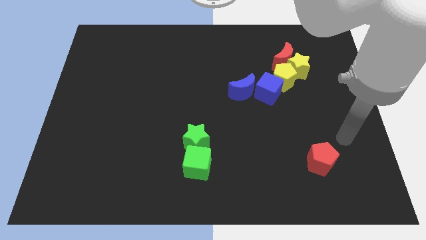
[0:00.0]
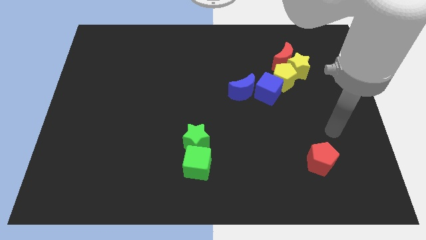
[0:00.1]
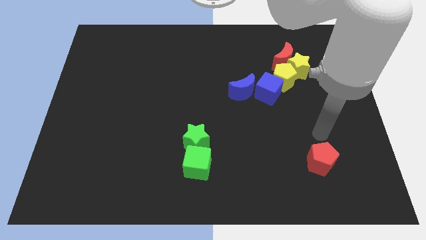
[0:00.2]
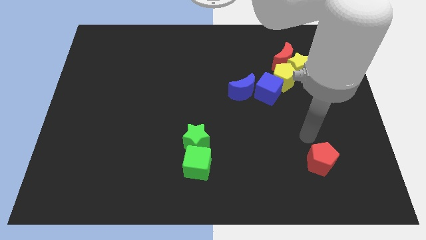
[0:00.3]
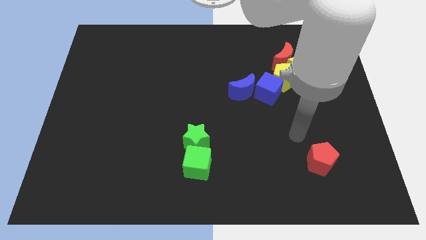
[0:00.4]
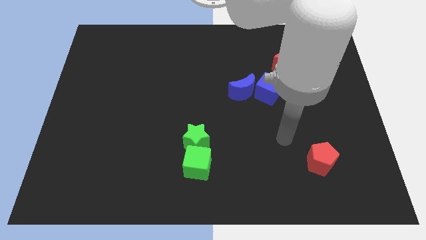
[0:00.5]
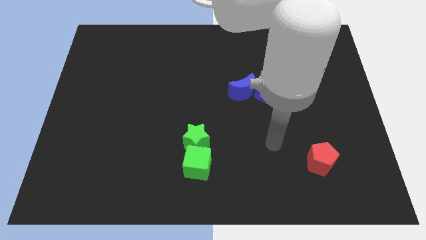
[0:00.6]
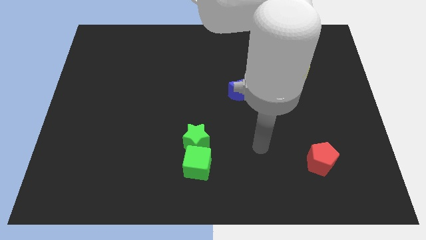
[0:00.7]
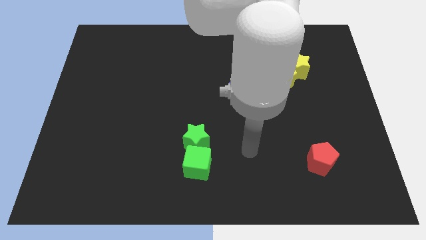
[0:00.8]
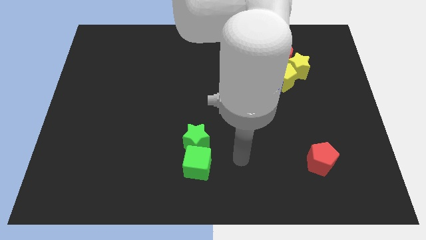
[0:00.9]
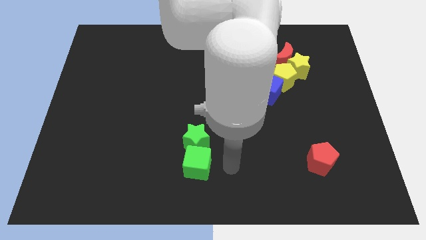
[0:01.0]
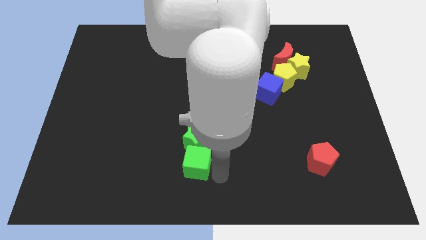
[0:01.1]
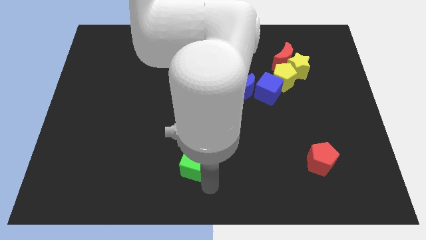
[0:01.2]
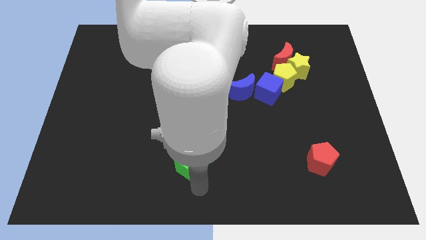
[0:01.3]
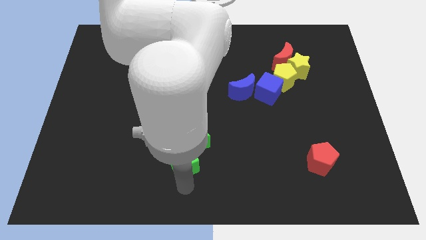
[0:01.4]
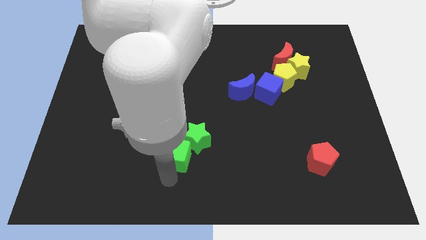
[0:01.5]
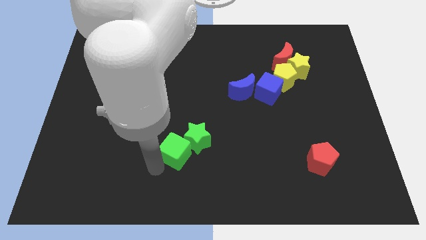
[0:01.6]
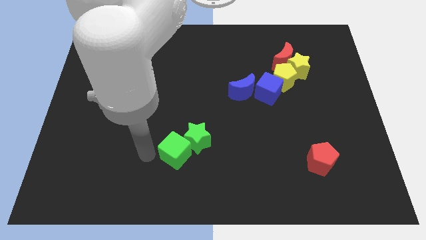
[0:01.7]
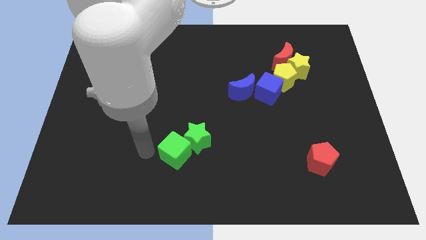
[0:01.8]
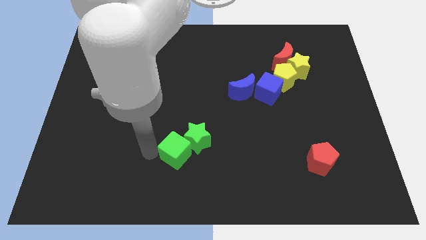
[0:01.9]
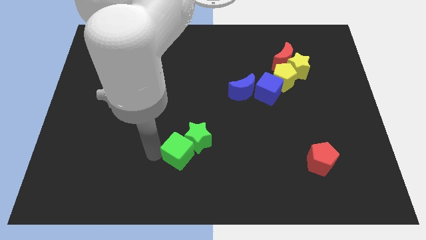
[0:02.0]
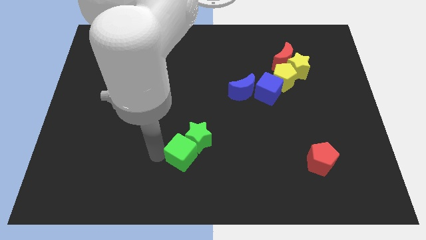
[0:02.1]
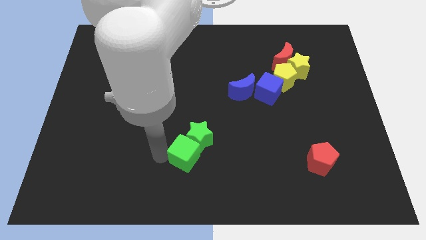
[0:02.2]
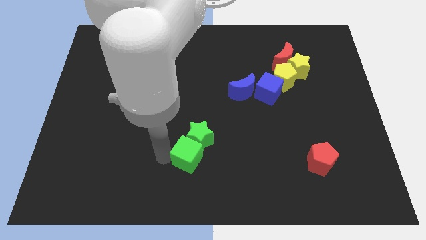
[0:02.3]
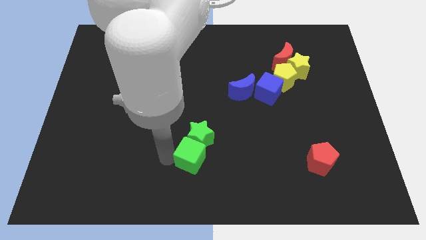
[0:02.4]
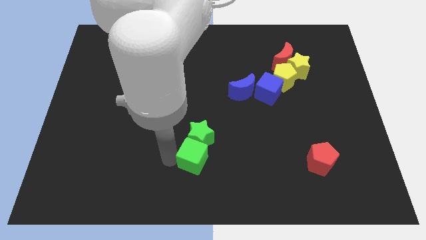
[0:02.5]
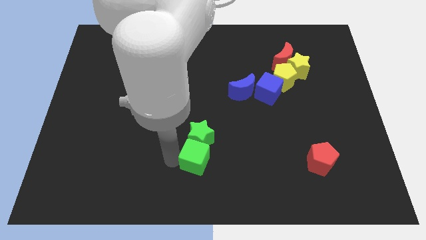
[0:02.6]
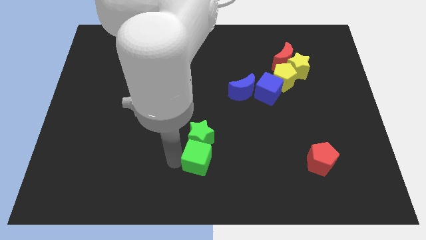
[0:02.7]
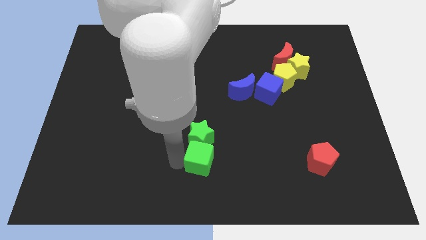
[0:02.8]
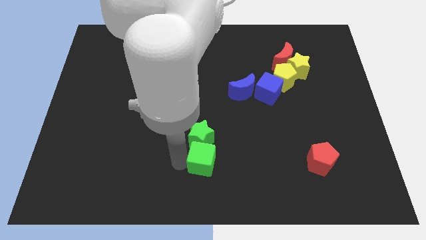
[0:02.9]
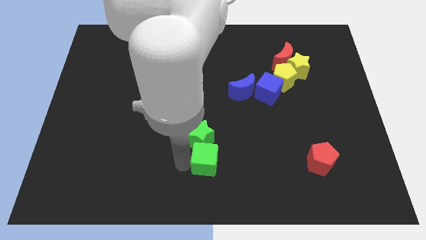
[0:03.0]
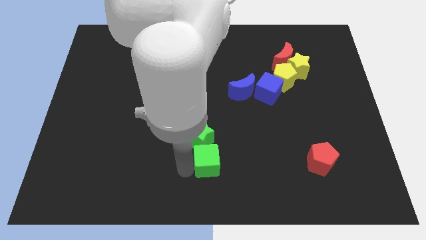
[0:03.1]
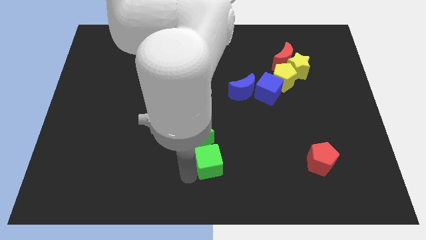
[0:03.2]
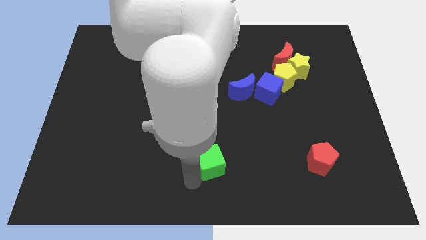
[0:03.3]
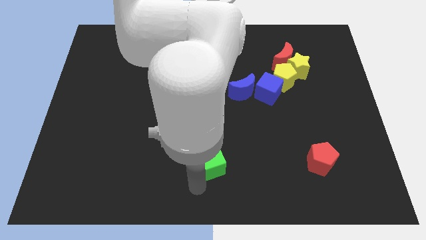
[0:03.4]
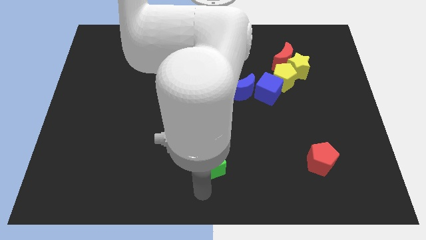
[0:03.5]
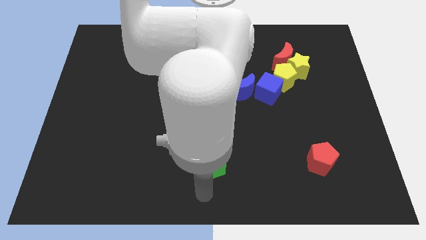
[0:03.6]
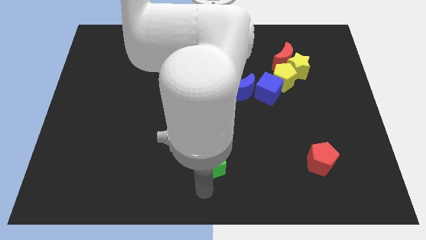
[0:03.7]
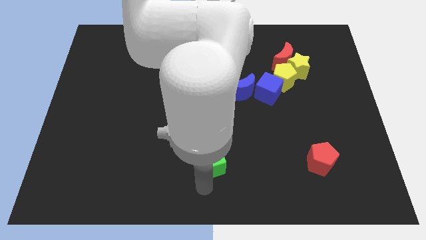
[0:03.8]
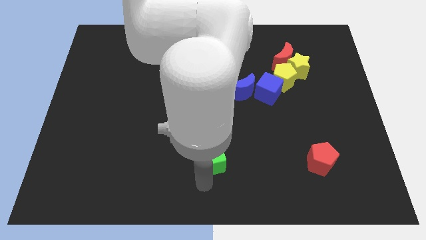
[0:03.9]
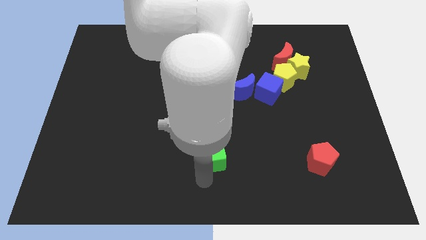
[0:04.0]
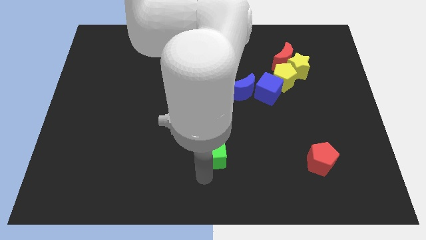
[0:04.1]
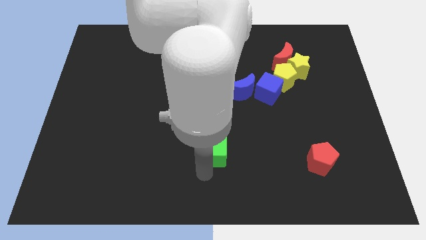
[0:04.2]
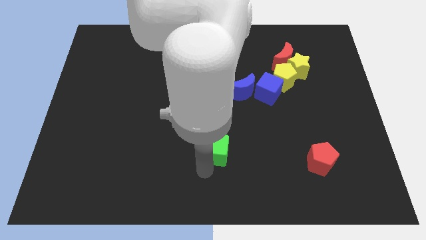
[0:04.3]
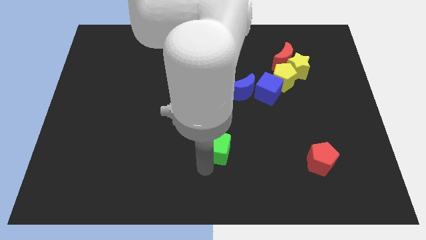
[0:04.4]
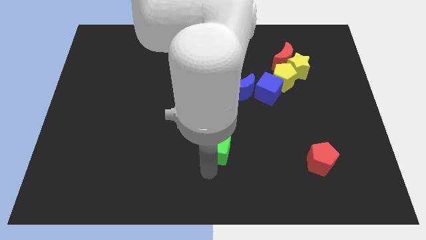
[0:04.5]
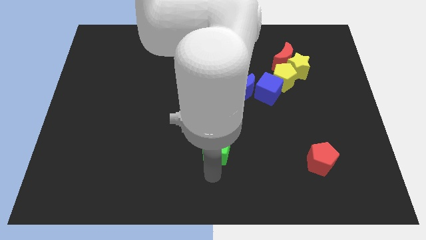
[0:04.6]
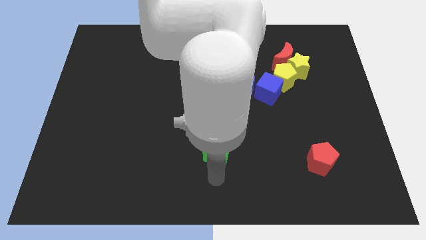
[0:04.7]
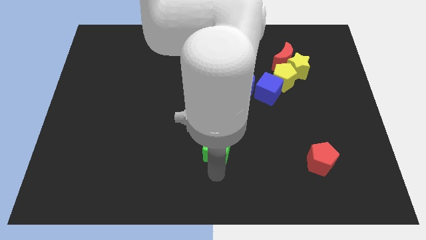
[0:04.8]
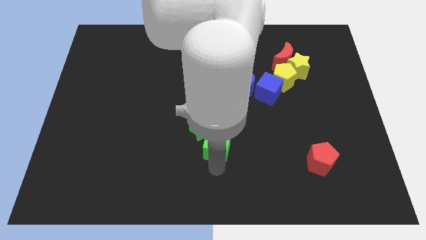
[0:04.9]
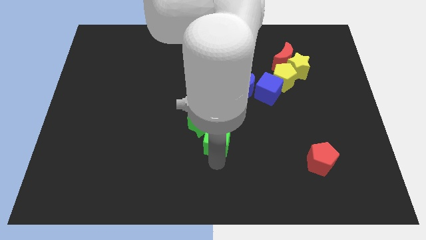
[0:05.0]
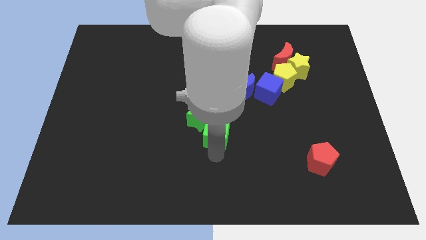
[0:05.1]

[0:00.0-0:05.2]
slightly move the green cube upwards

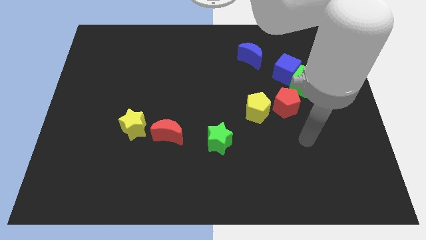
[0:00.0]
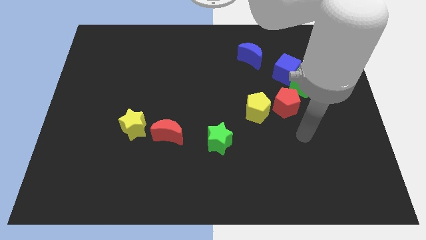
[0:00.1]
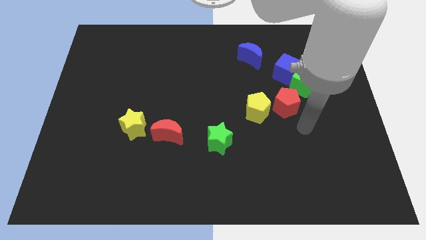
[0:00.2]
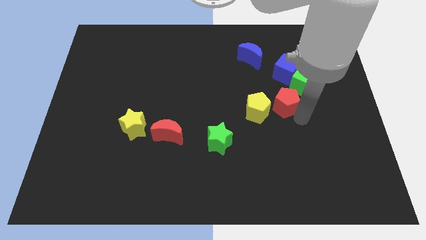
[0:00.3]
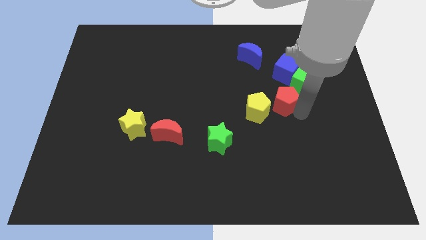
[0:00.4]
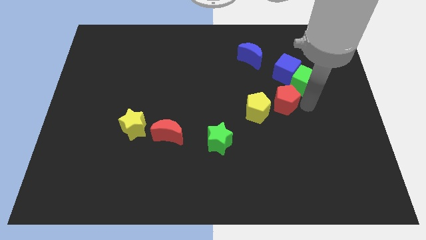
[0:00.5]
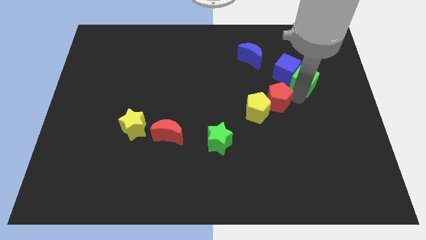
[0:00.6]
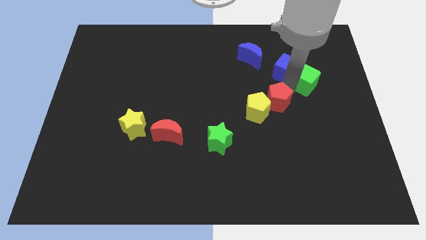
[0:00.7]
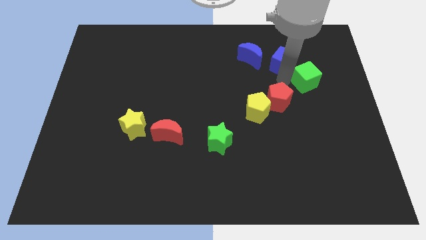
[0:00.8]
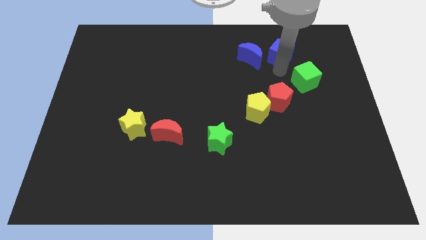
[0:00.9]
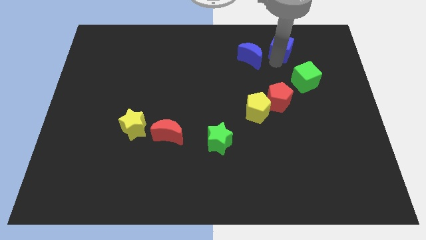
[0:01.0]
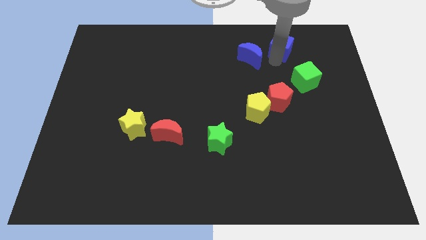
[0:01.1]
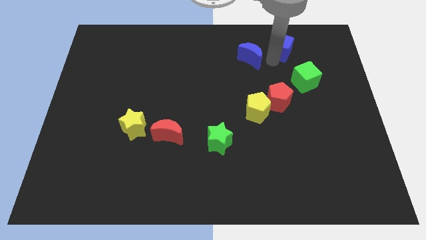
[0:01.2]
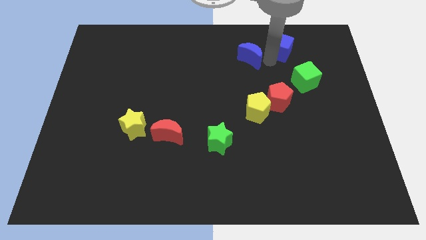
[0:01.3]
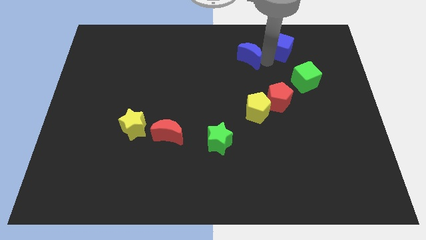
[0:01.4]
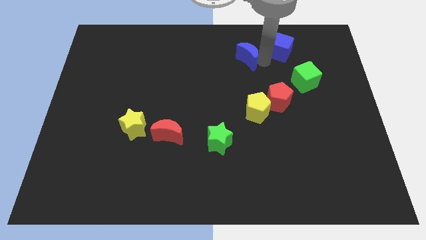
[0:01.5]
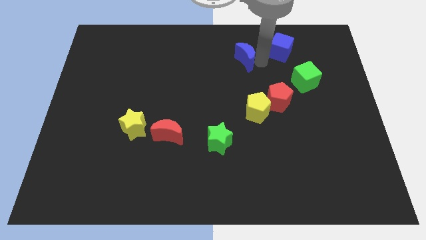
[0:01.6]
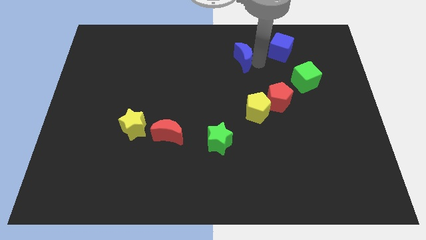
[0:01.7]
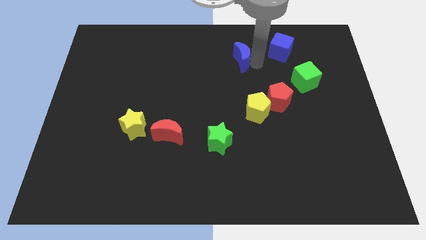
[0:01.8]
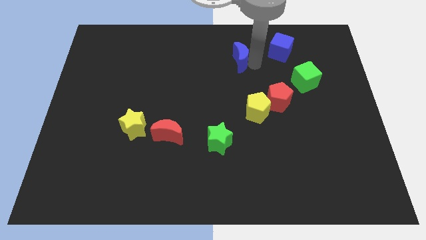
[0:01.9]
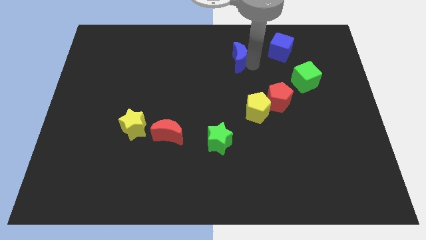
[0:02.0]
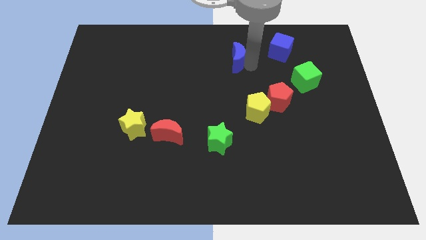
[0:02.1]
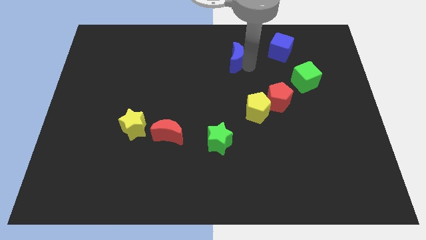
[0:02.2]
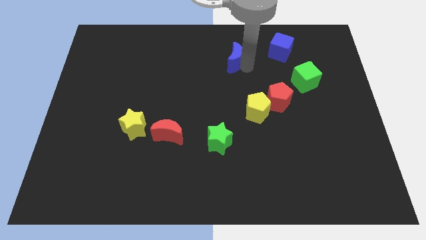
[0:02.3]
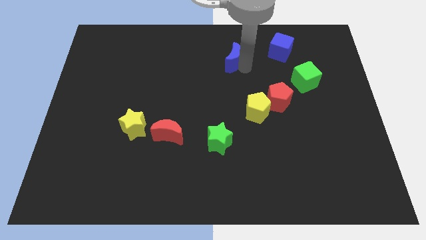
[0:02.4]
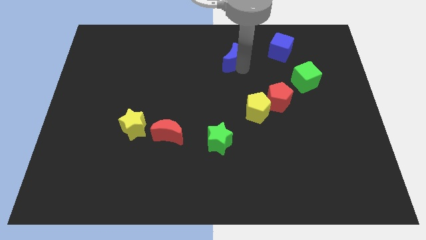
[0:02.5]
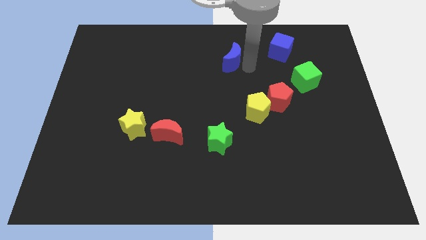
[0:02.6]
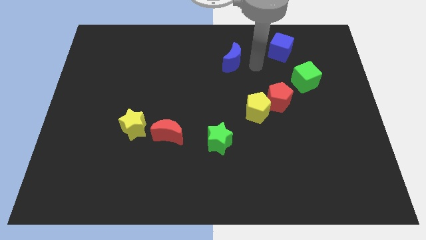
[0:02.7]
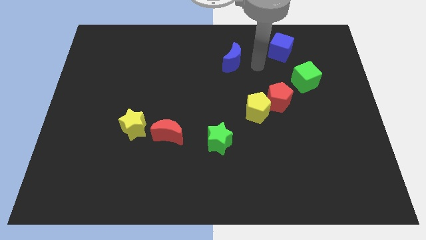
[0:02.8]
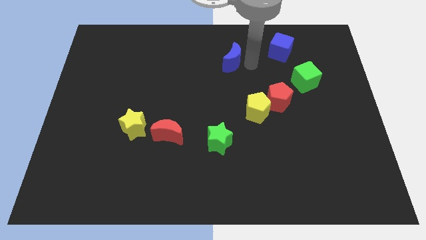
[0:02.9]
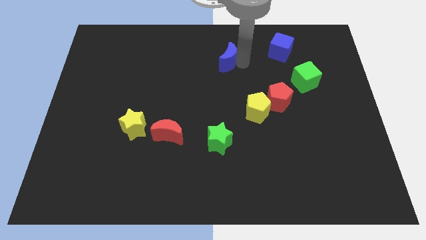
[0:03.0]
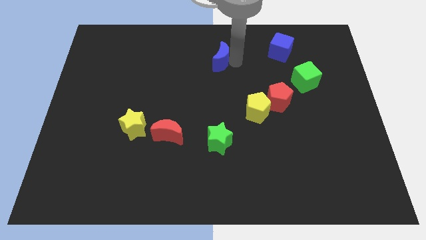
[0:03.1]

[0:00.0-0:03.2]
slightly move the blue moon to the left
